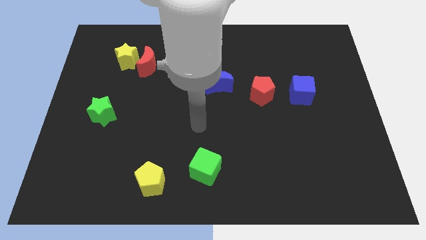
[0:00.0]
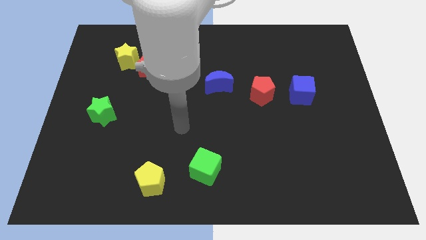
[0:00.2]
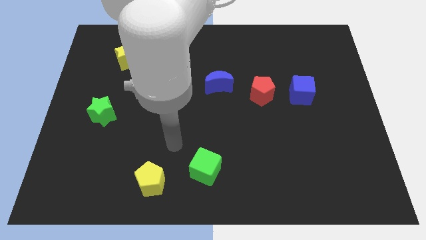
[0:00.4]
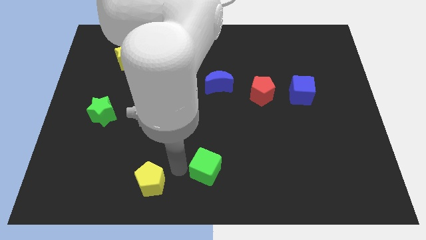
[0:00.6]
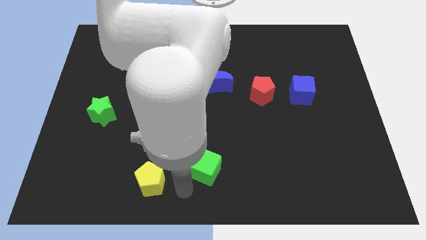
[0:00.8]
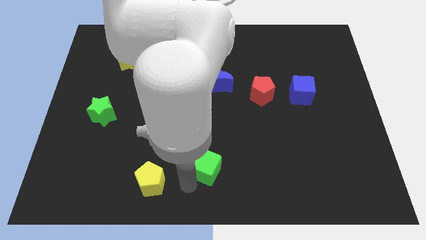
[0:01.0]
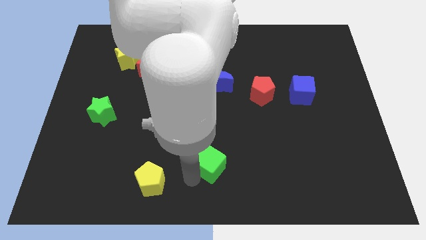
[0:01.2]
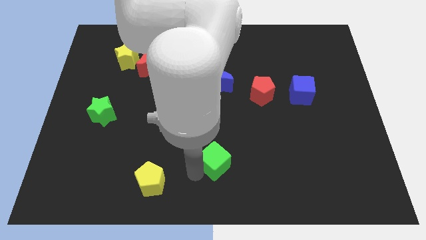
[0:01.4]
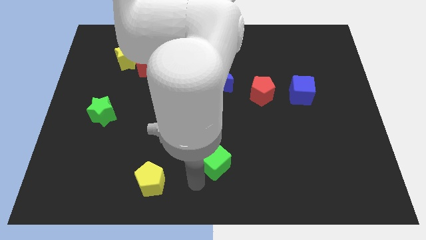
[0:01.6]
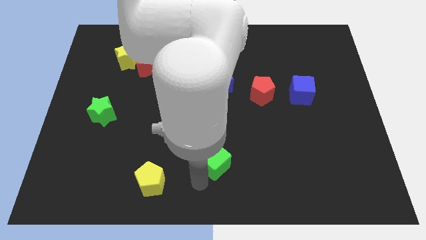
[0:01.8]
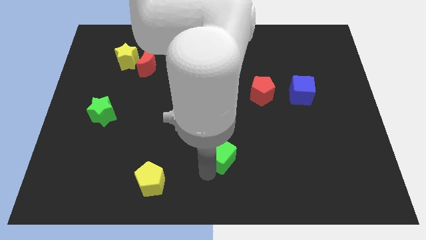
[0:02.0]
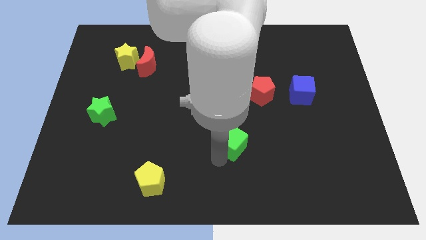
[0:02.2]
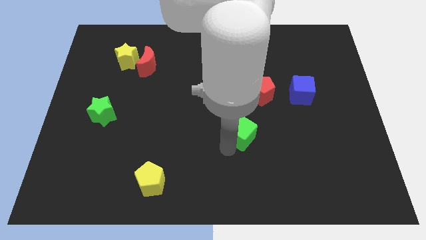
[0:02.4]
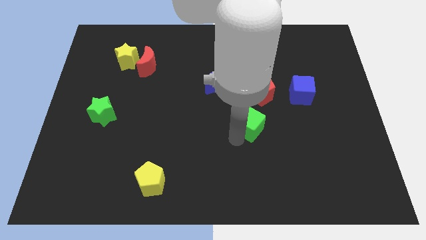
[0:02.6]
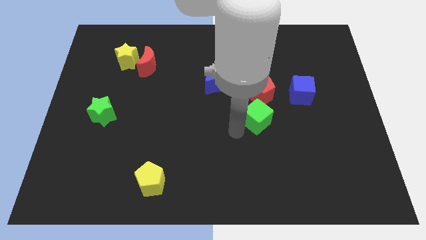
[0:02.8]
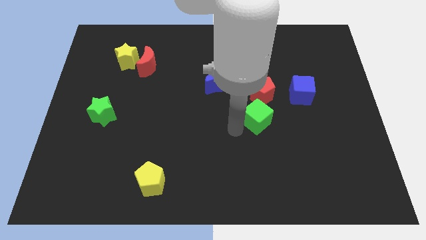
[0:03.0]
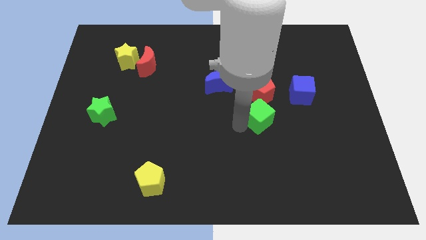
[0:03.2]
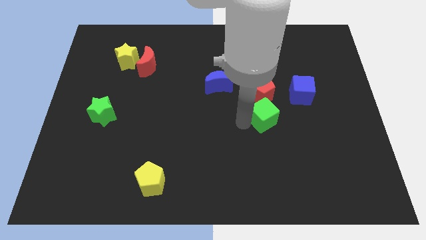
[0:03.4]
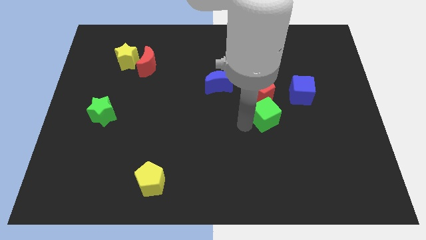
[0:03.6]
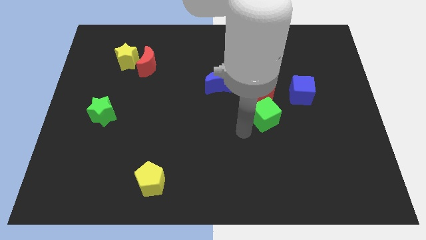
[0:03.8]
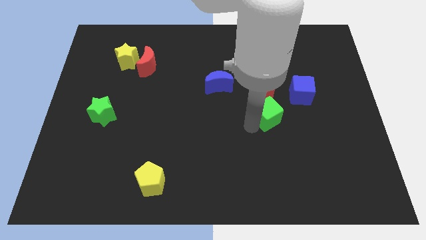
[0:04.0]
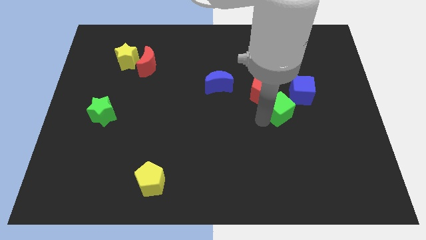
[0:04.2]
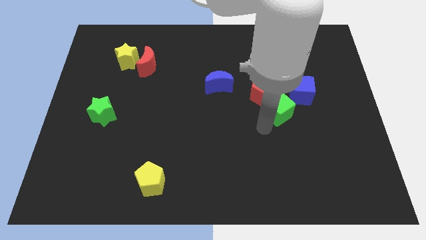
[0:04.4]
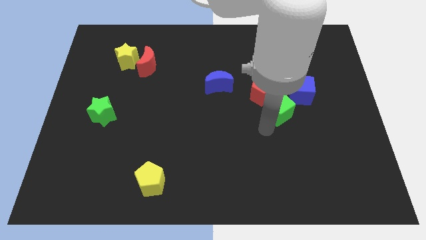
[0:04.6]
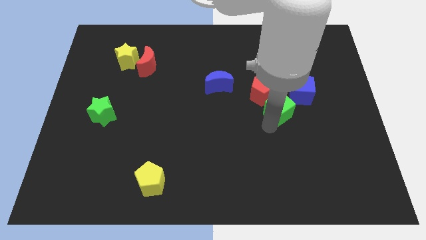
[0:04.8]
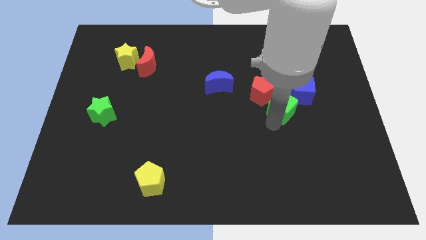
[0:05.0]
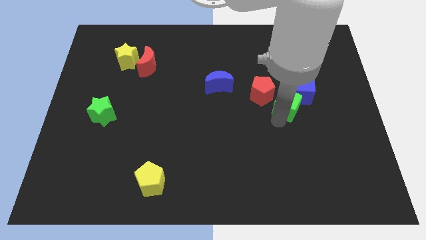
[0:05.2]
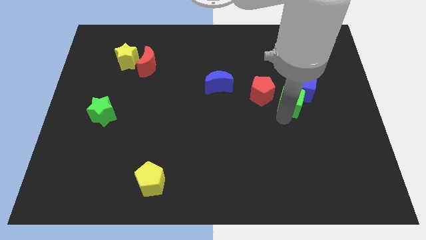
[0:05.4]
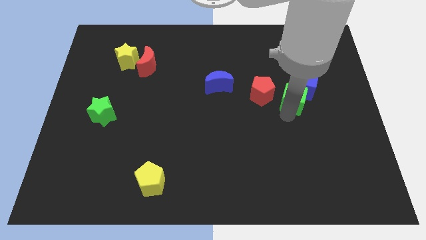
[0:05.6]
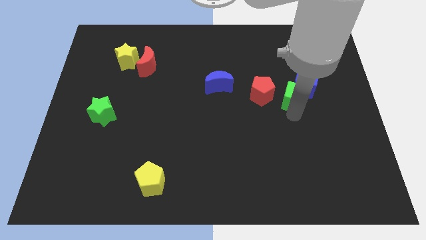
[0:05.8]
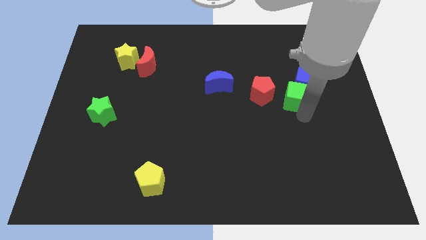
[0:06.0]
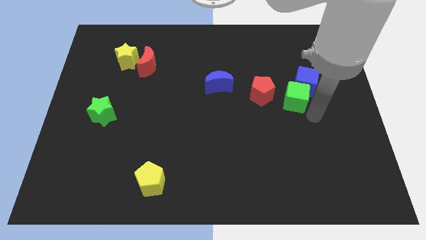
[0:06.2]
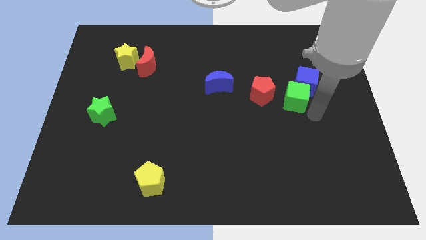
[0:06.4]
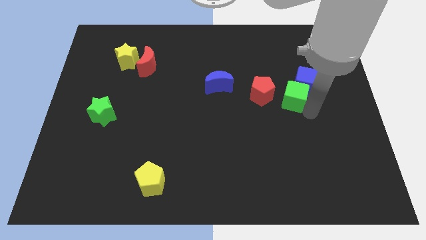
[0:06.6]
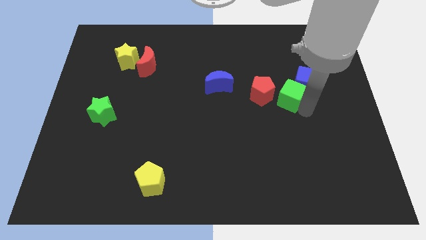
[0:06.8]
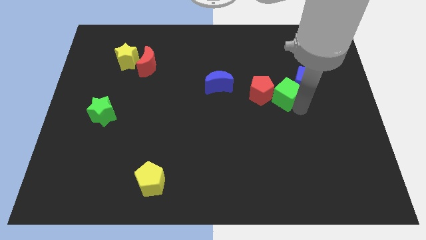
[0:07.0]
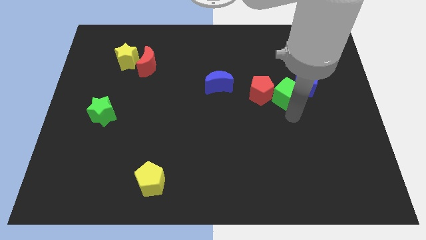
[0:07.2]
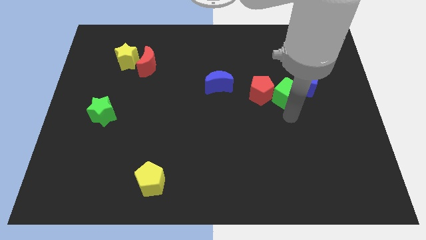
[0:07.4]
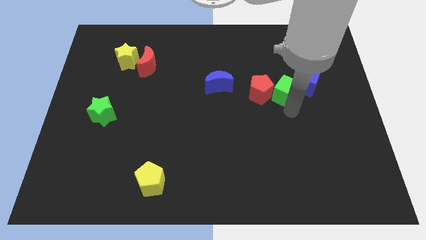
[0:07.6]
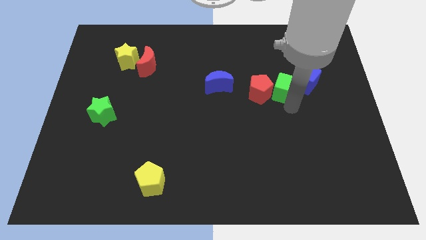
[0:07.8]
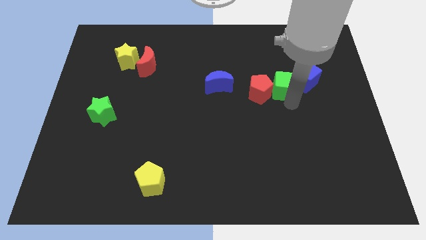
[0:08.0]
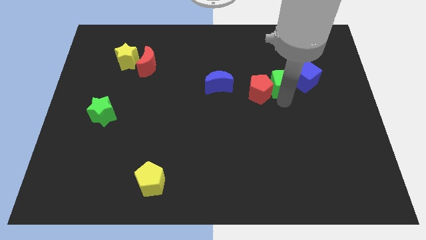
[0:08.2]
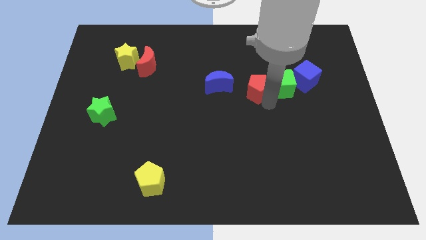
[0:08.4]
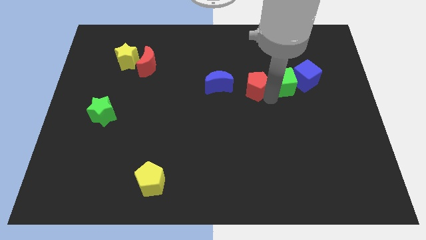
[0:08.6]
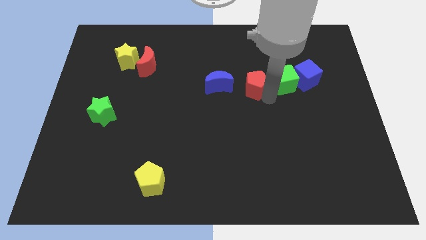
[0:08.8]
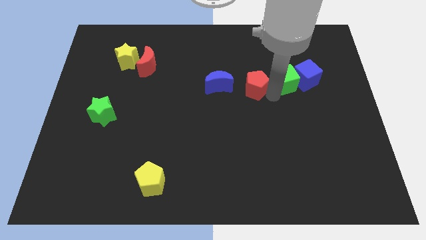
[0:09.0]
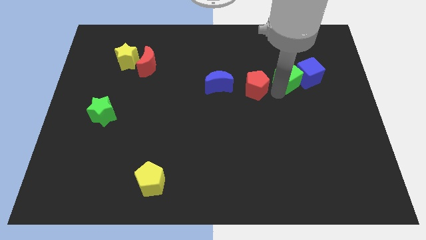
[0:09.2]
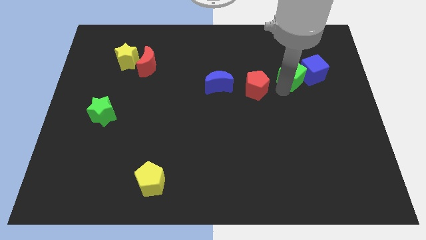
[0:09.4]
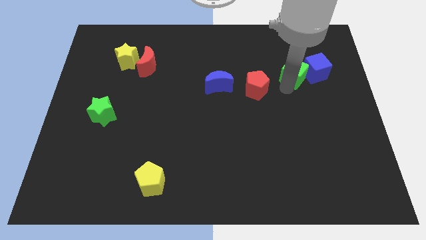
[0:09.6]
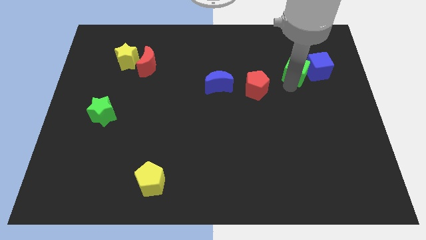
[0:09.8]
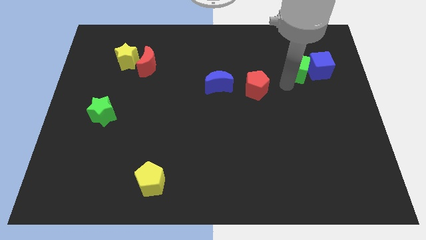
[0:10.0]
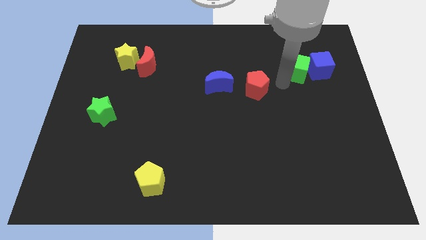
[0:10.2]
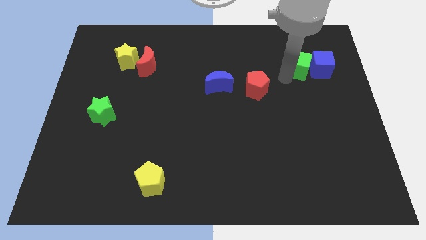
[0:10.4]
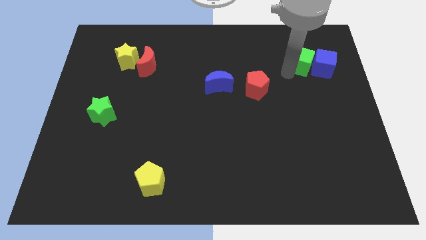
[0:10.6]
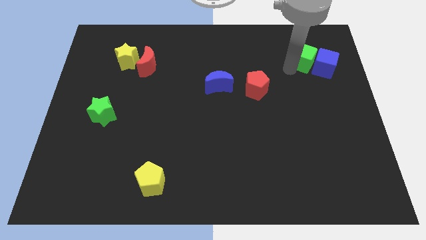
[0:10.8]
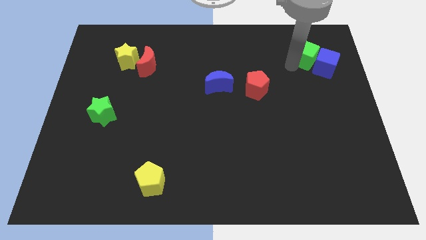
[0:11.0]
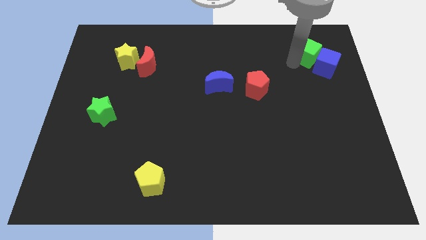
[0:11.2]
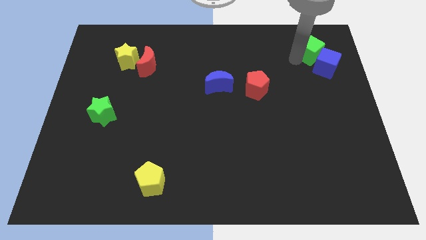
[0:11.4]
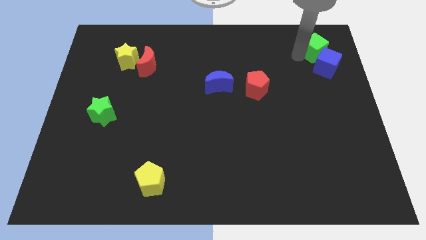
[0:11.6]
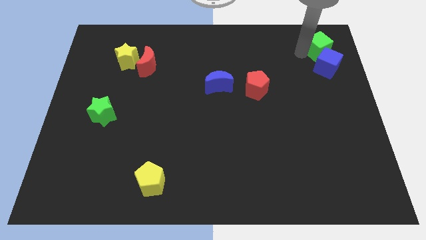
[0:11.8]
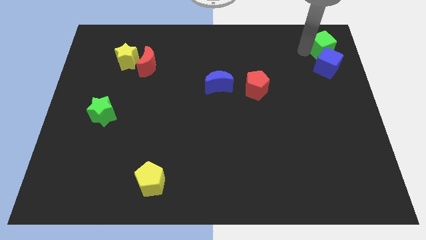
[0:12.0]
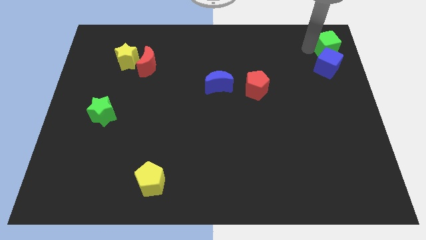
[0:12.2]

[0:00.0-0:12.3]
move the green cube to the top right of the board

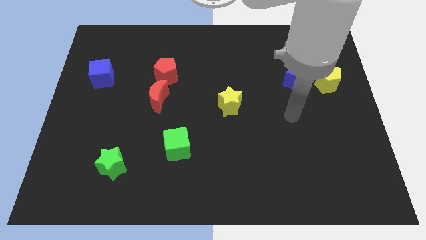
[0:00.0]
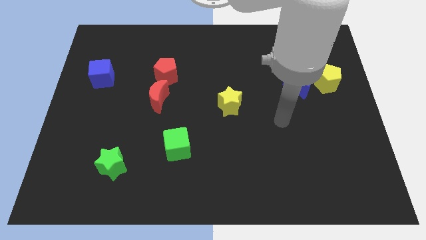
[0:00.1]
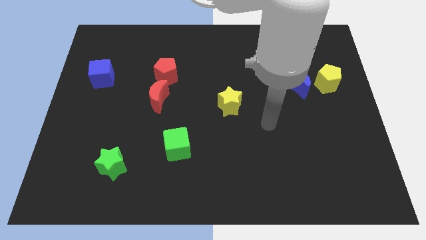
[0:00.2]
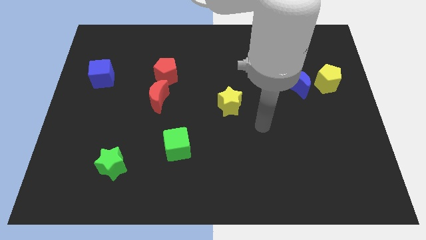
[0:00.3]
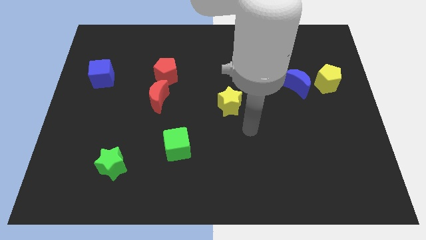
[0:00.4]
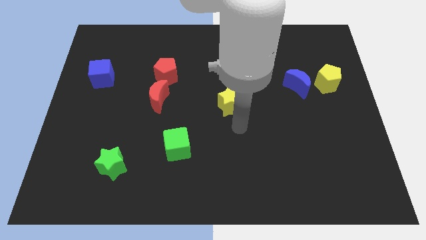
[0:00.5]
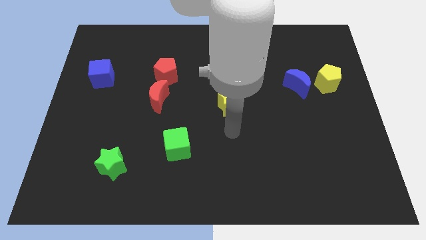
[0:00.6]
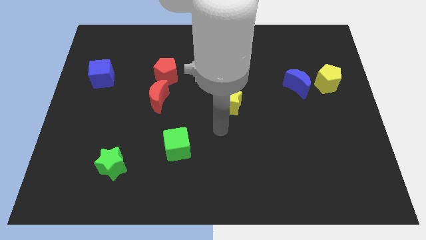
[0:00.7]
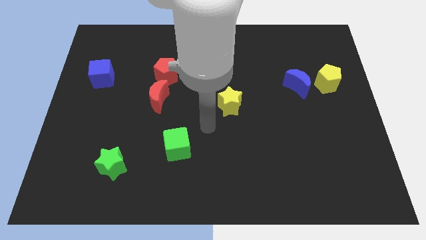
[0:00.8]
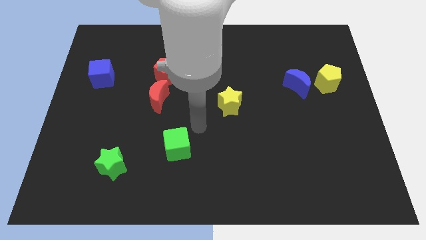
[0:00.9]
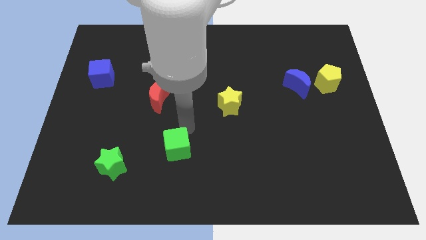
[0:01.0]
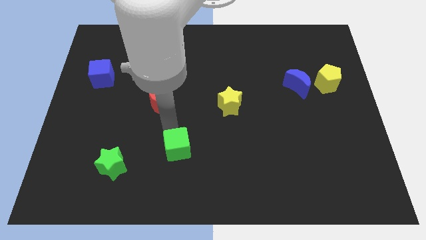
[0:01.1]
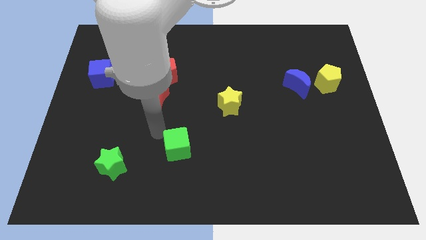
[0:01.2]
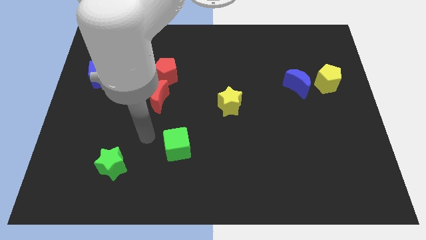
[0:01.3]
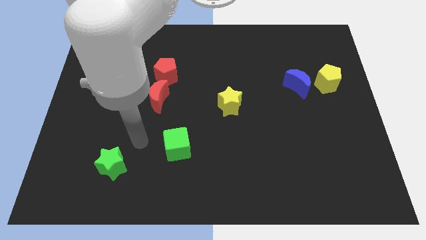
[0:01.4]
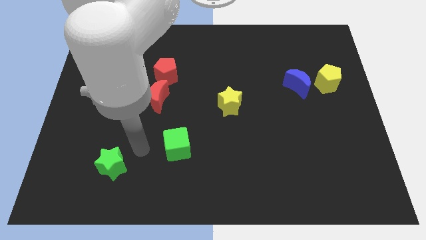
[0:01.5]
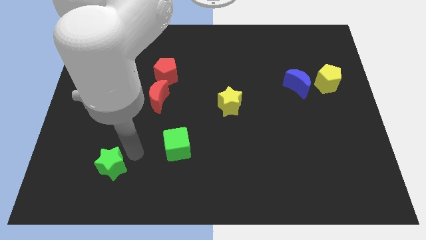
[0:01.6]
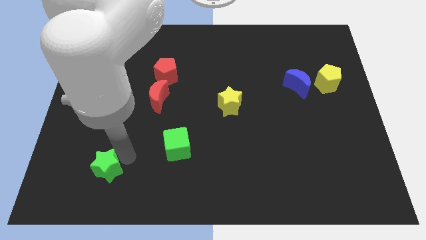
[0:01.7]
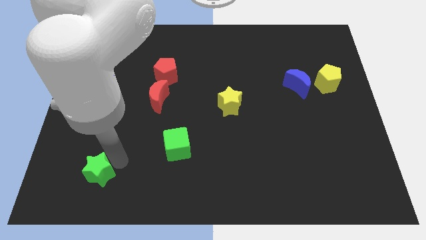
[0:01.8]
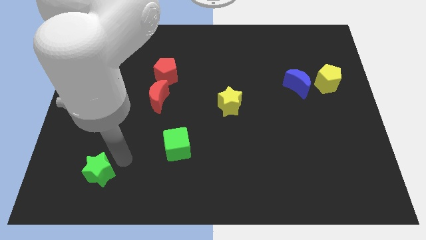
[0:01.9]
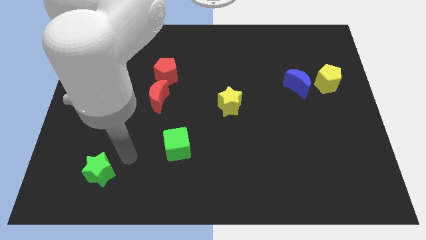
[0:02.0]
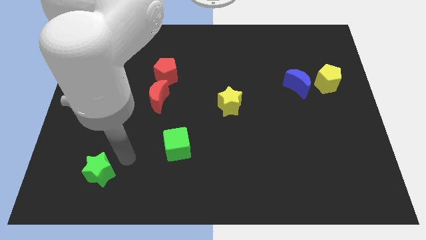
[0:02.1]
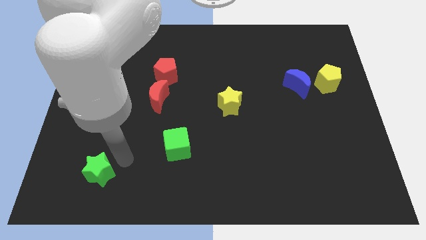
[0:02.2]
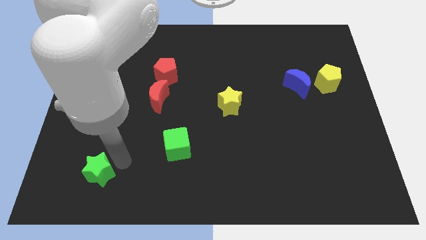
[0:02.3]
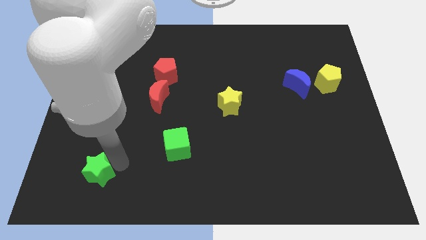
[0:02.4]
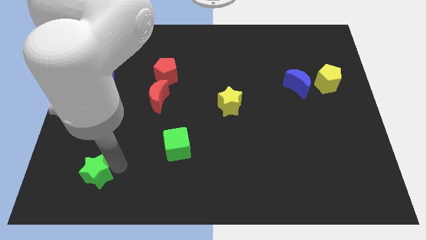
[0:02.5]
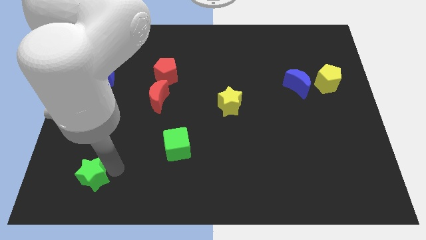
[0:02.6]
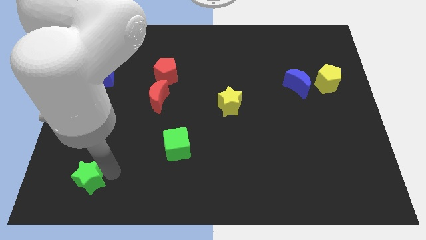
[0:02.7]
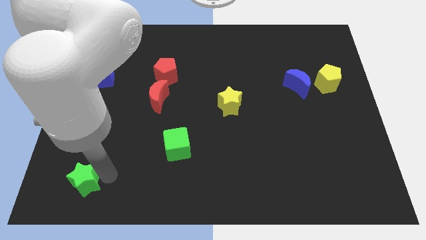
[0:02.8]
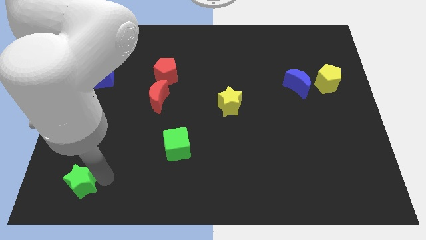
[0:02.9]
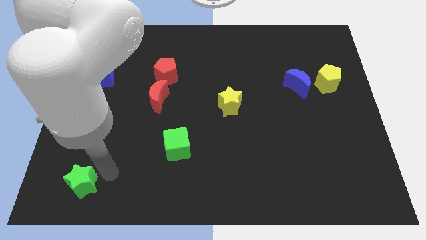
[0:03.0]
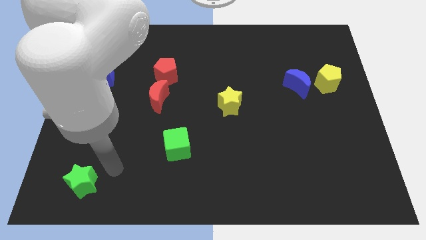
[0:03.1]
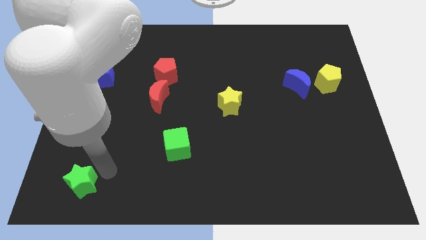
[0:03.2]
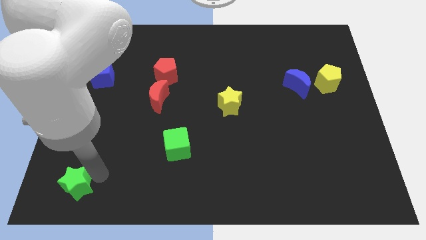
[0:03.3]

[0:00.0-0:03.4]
slide the green star to the lower left corner
